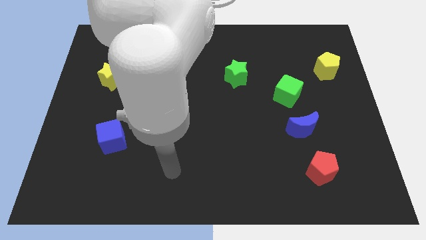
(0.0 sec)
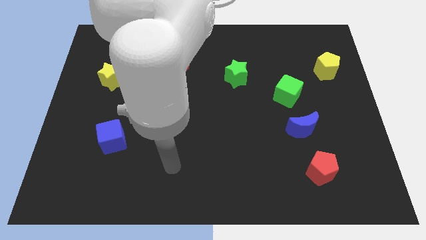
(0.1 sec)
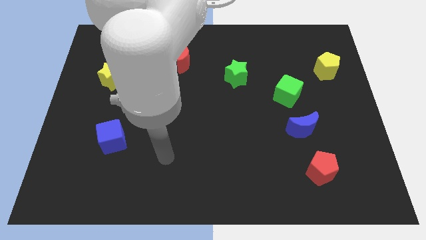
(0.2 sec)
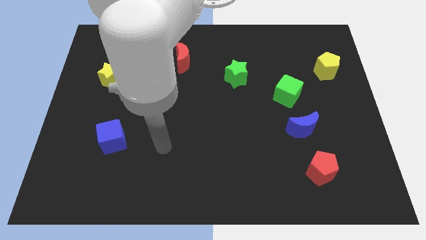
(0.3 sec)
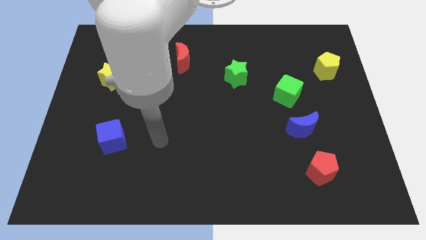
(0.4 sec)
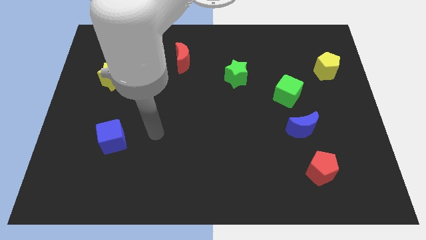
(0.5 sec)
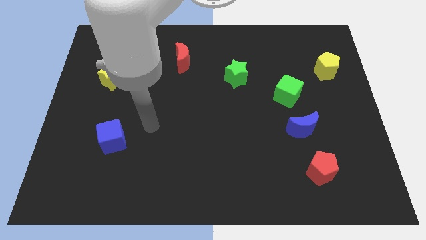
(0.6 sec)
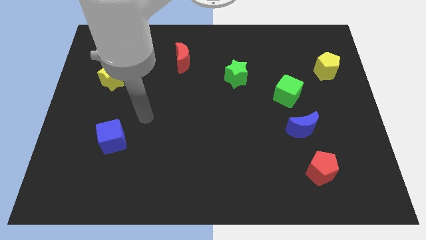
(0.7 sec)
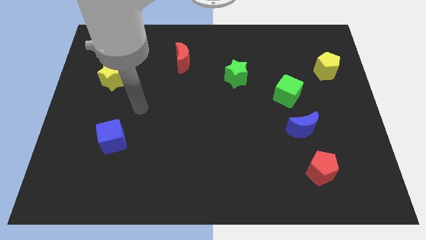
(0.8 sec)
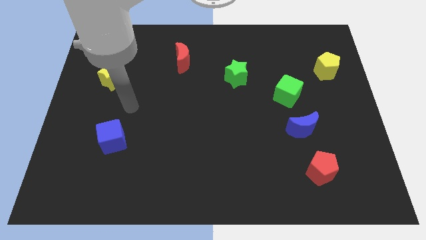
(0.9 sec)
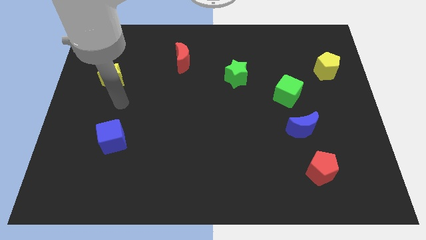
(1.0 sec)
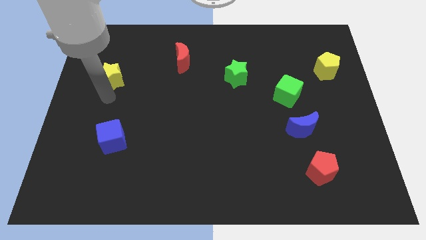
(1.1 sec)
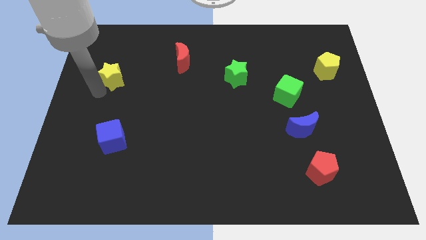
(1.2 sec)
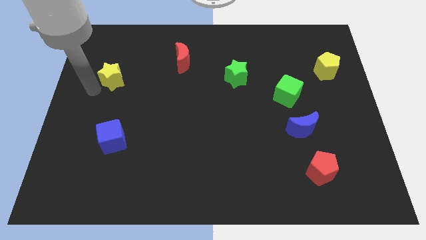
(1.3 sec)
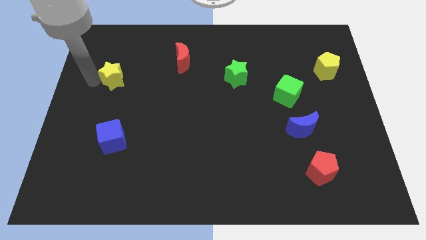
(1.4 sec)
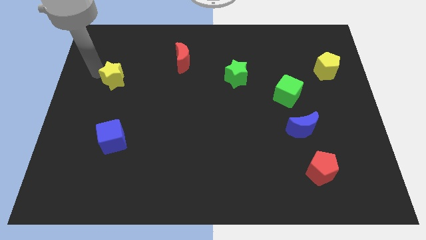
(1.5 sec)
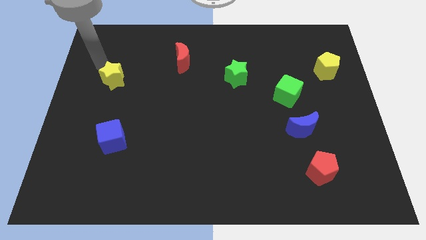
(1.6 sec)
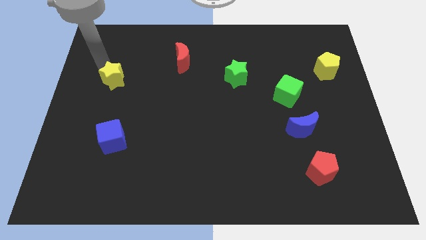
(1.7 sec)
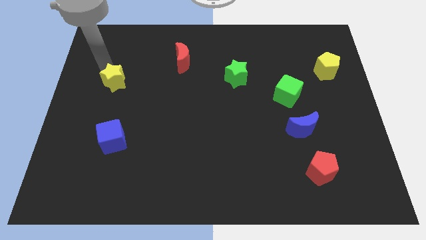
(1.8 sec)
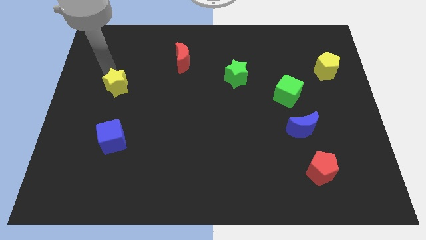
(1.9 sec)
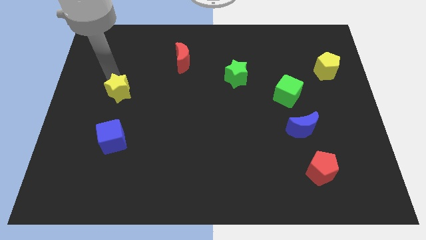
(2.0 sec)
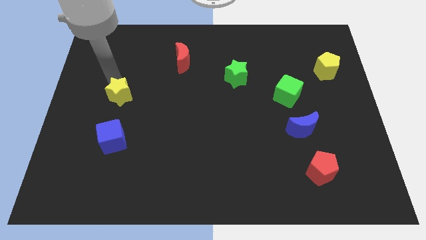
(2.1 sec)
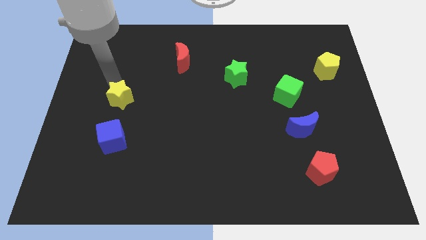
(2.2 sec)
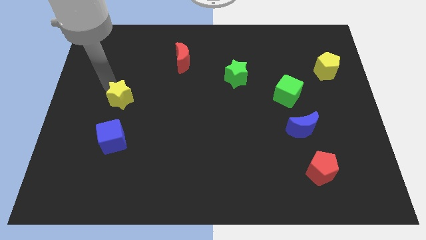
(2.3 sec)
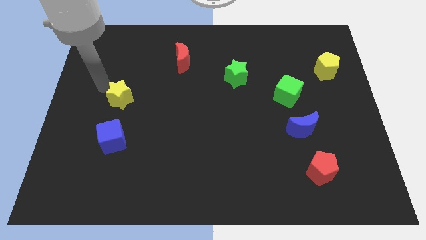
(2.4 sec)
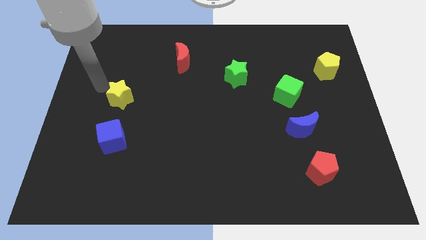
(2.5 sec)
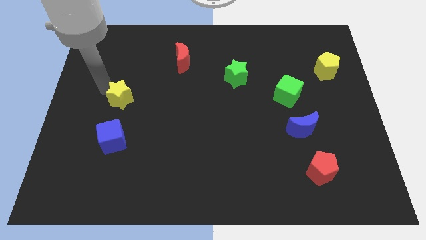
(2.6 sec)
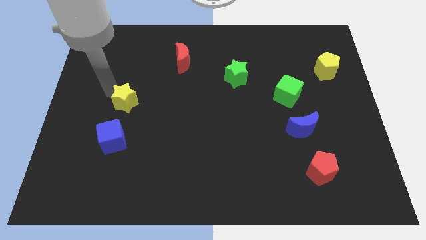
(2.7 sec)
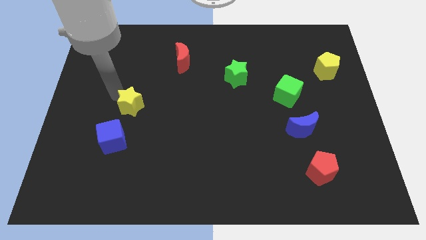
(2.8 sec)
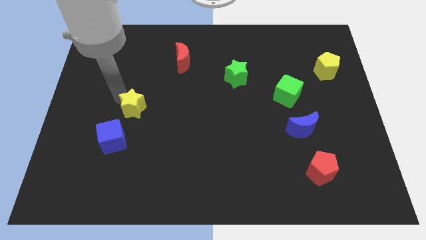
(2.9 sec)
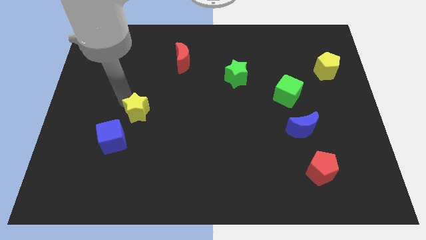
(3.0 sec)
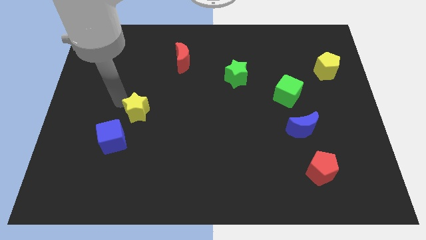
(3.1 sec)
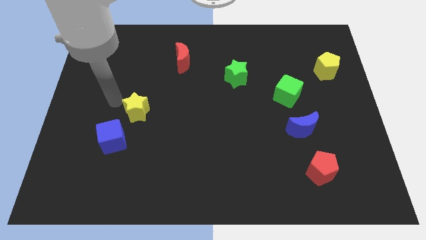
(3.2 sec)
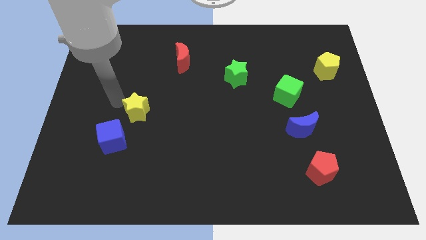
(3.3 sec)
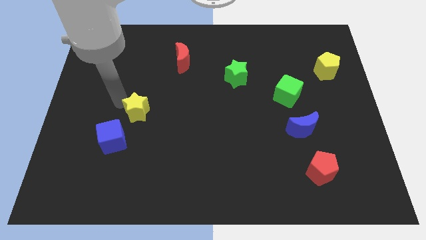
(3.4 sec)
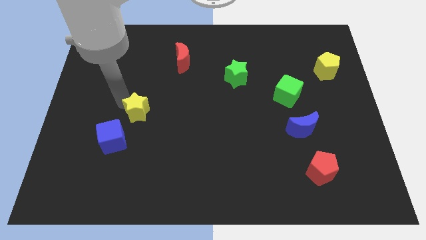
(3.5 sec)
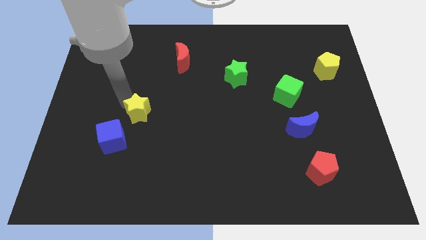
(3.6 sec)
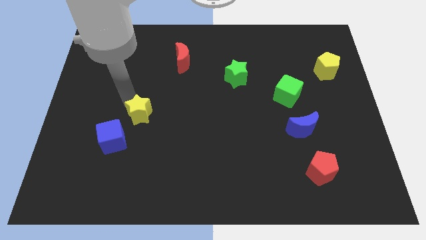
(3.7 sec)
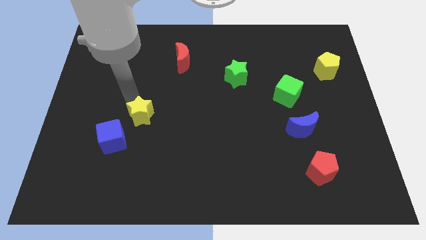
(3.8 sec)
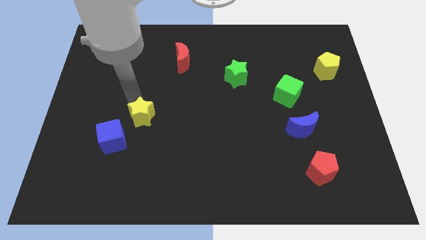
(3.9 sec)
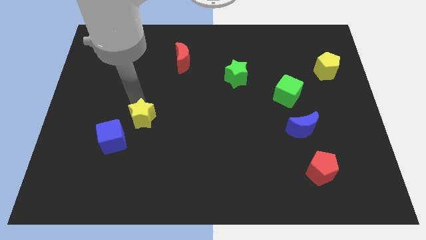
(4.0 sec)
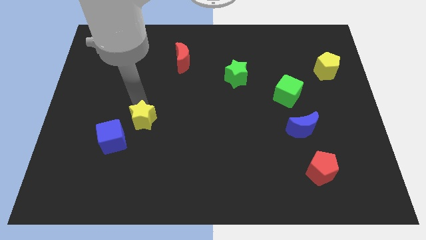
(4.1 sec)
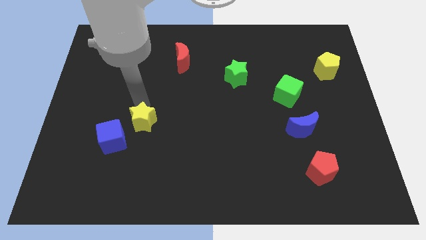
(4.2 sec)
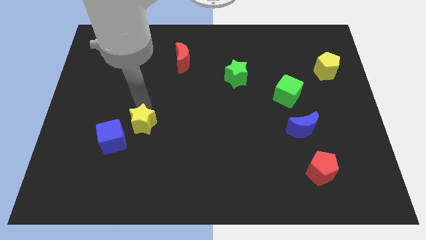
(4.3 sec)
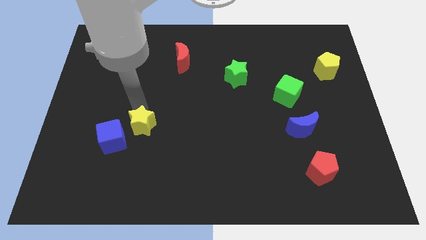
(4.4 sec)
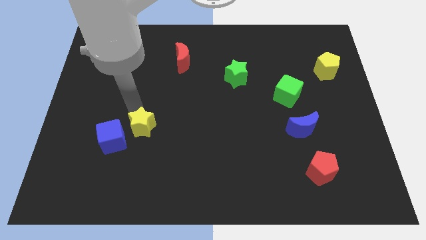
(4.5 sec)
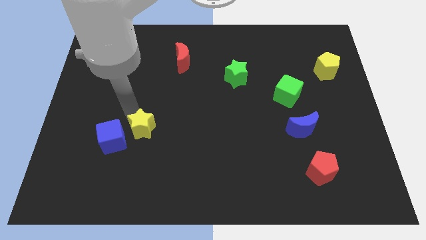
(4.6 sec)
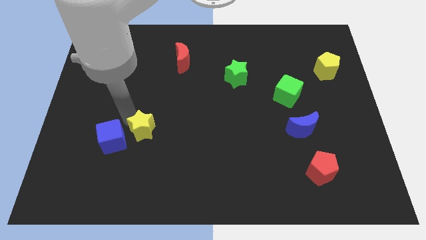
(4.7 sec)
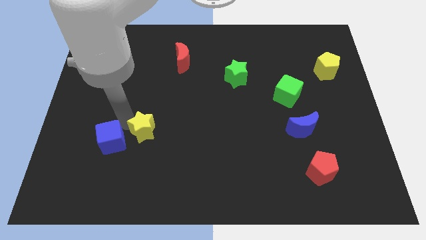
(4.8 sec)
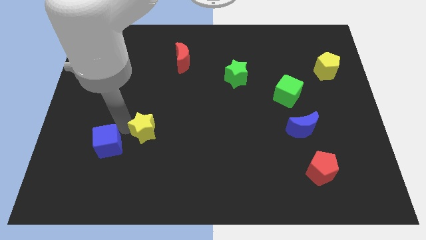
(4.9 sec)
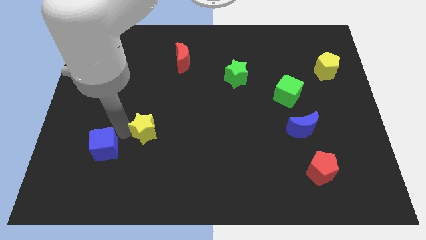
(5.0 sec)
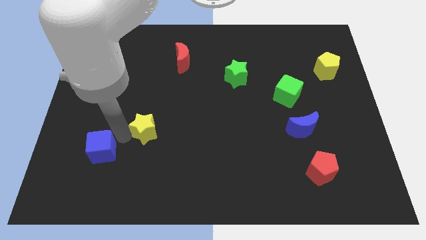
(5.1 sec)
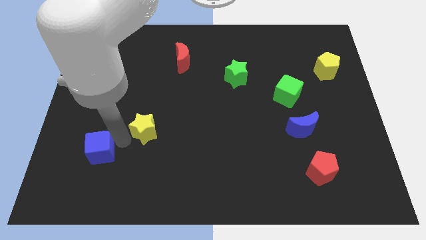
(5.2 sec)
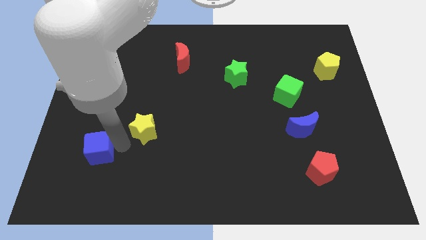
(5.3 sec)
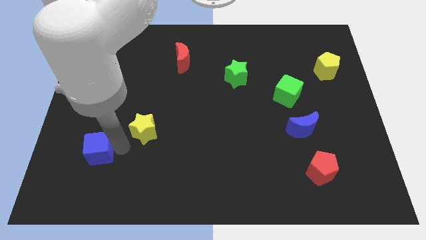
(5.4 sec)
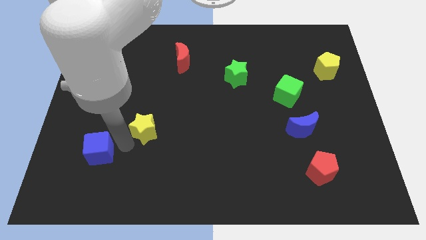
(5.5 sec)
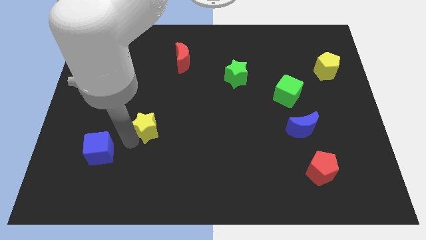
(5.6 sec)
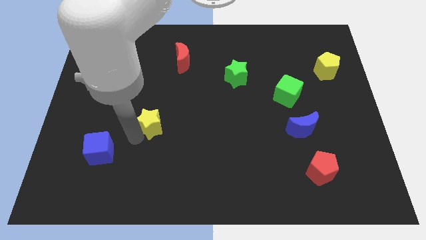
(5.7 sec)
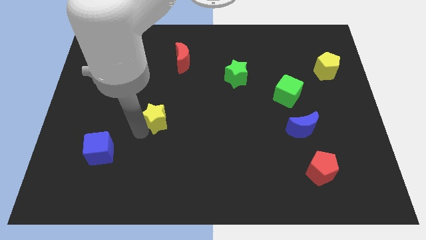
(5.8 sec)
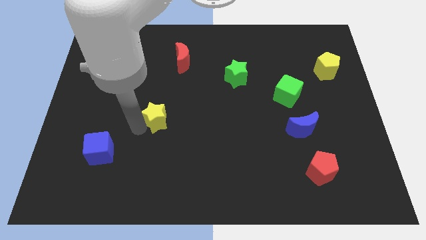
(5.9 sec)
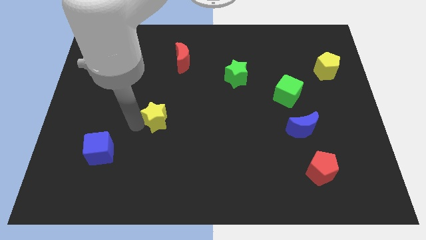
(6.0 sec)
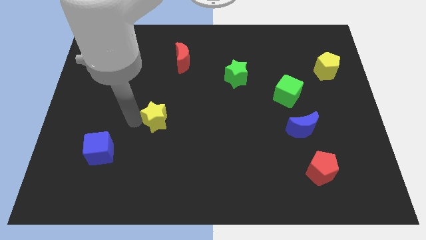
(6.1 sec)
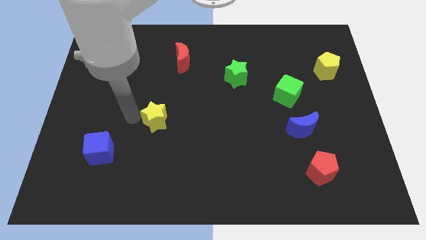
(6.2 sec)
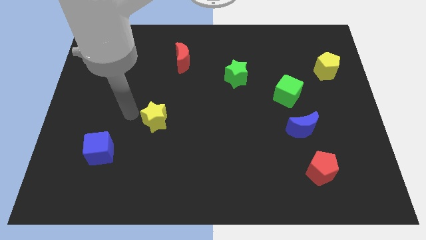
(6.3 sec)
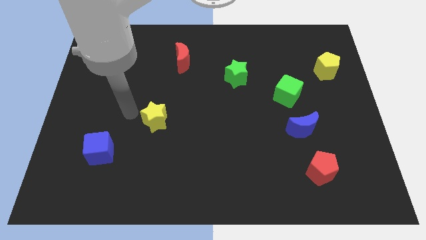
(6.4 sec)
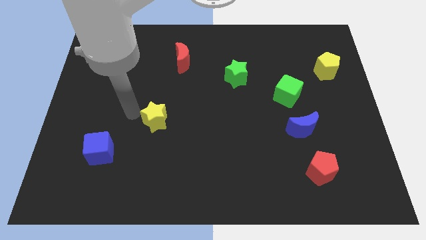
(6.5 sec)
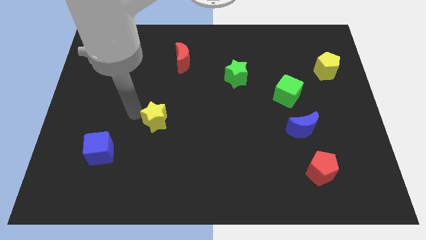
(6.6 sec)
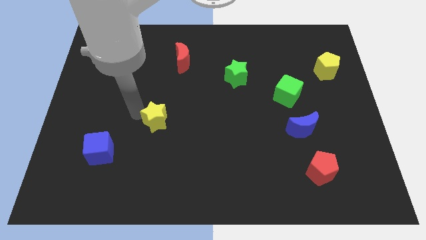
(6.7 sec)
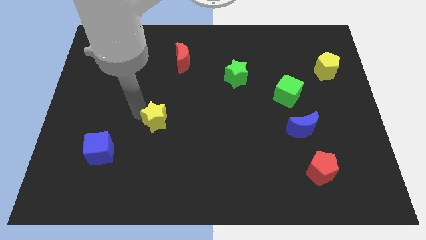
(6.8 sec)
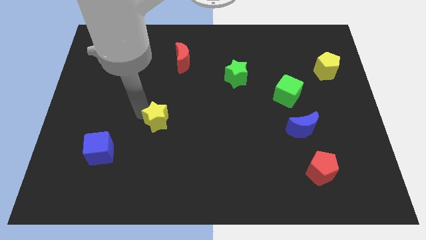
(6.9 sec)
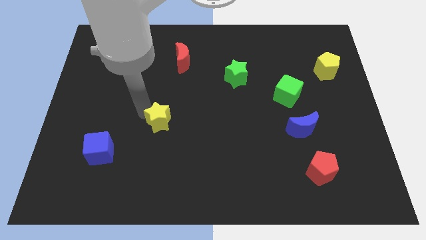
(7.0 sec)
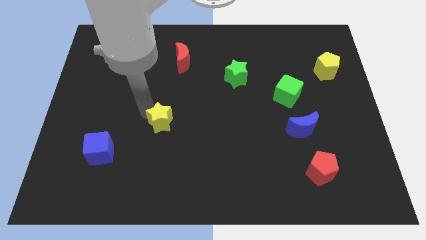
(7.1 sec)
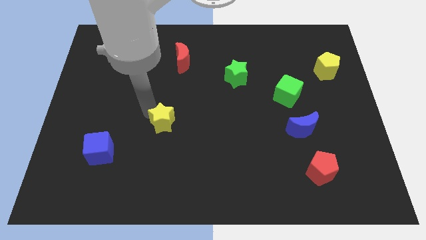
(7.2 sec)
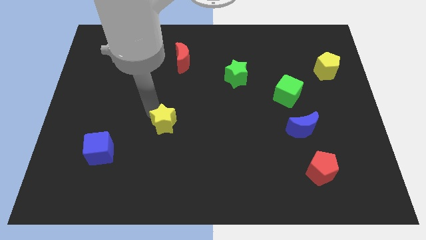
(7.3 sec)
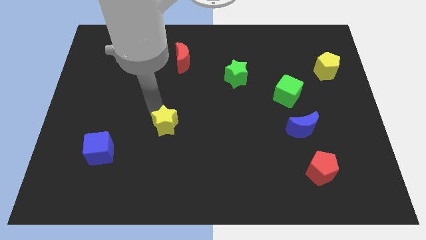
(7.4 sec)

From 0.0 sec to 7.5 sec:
push the yellow star diagonally down and to the right

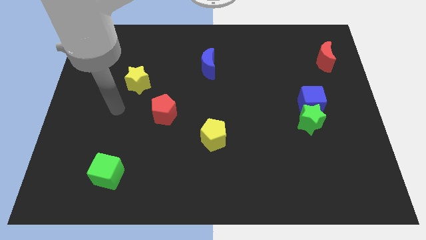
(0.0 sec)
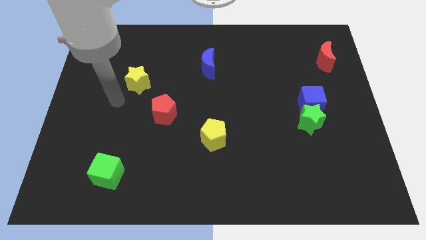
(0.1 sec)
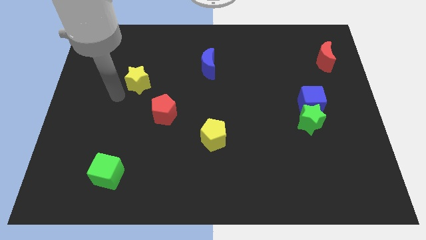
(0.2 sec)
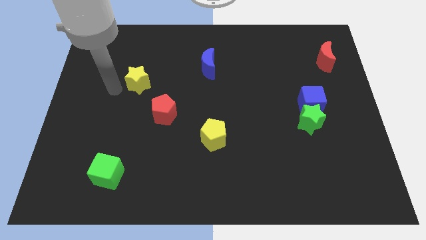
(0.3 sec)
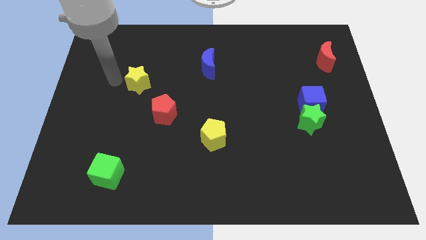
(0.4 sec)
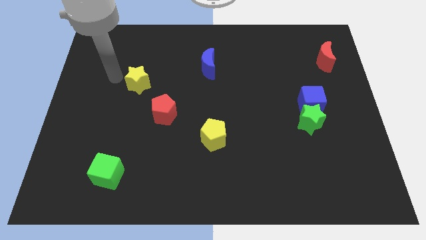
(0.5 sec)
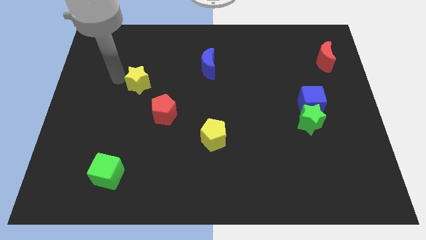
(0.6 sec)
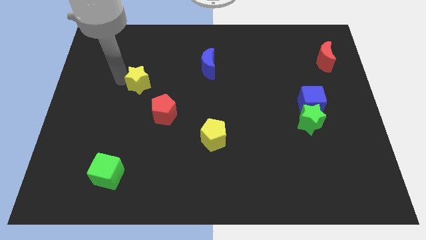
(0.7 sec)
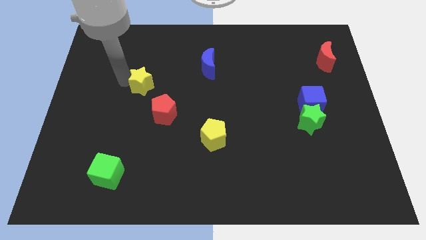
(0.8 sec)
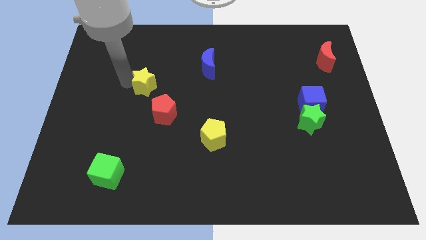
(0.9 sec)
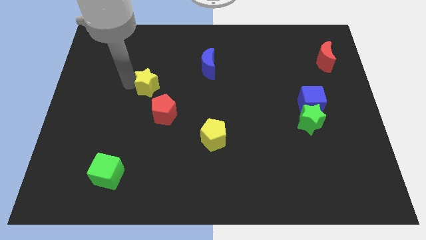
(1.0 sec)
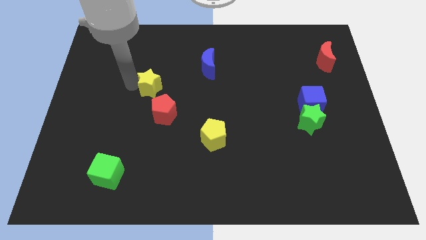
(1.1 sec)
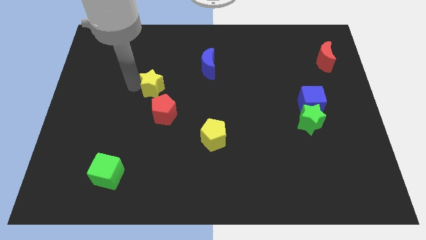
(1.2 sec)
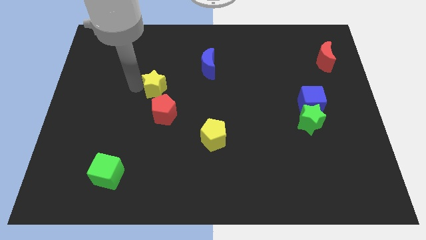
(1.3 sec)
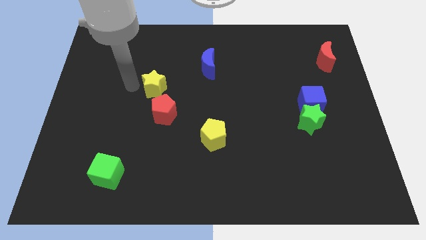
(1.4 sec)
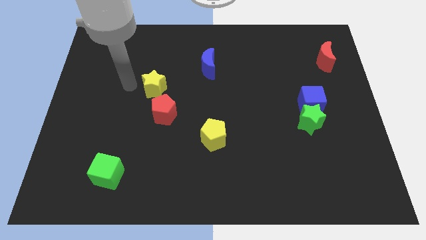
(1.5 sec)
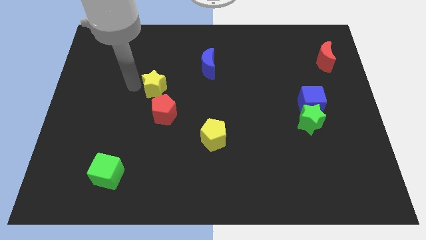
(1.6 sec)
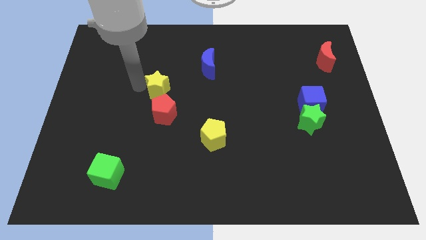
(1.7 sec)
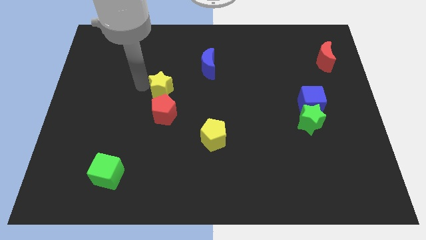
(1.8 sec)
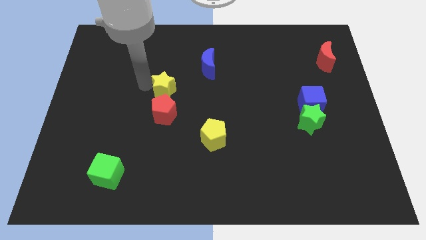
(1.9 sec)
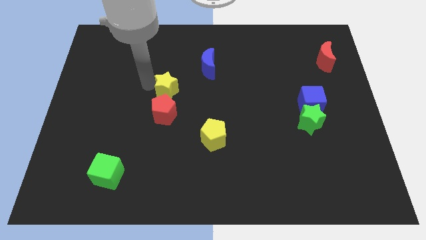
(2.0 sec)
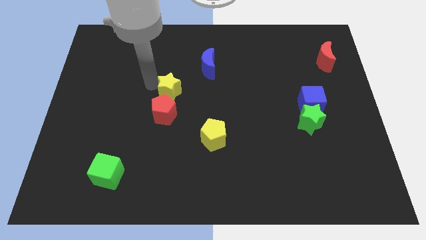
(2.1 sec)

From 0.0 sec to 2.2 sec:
move the yellow star slightly down and to the right diagonally
